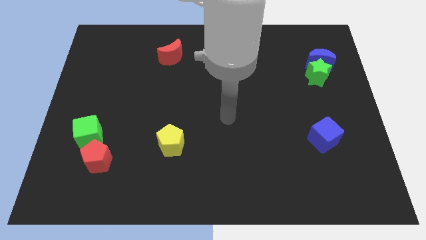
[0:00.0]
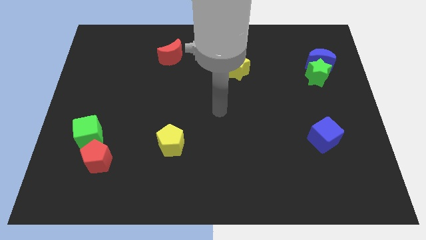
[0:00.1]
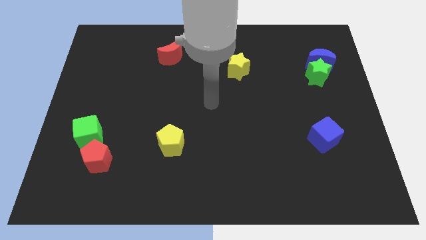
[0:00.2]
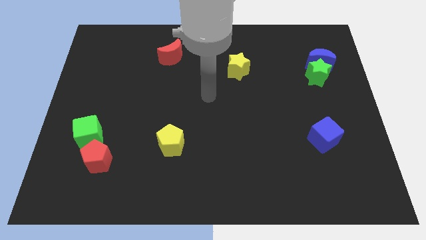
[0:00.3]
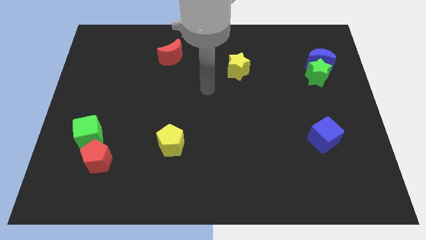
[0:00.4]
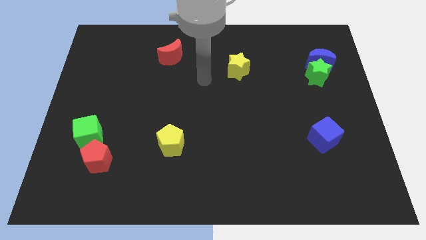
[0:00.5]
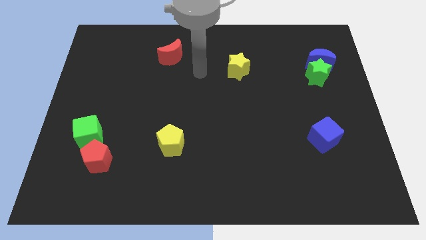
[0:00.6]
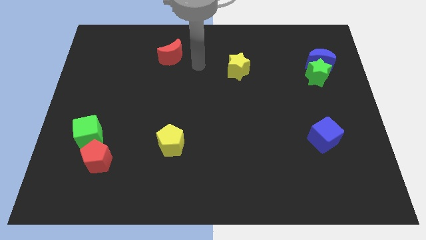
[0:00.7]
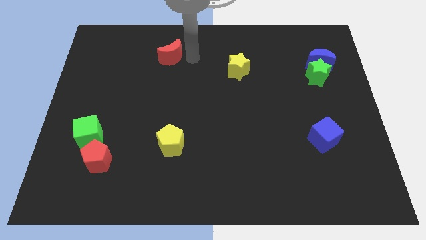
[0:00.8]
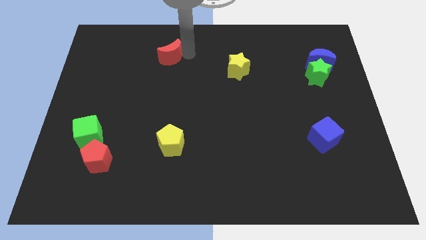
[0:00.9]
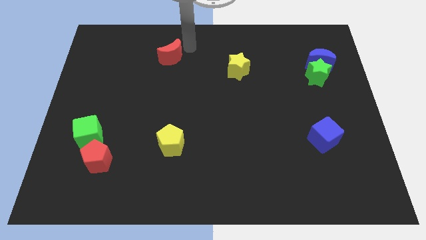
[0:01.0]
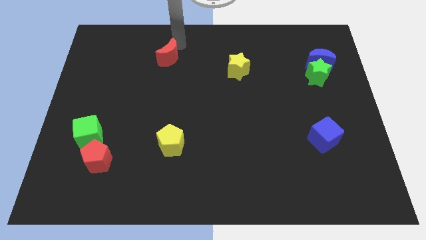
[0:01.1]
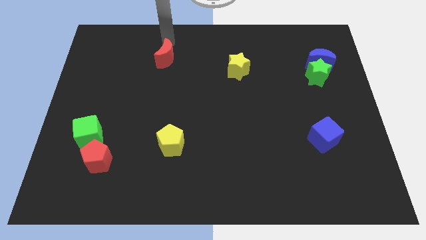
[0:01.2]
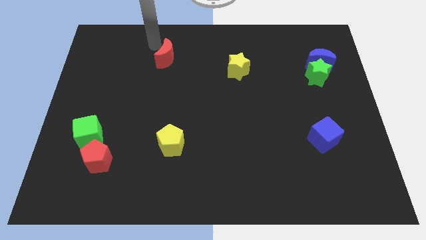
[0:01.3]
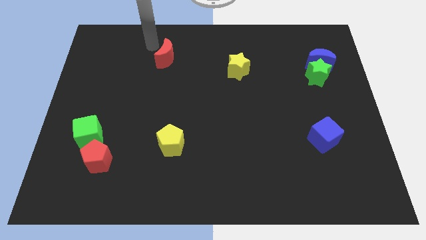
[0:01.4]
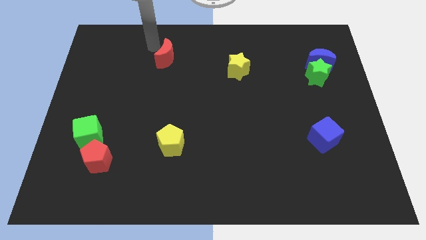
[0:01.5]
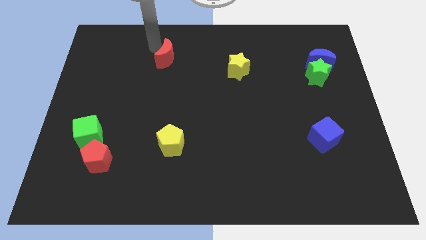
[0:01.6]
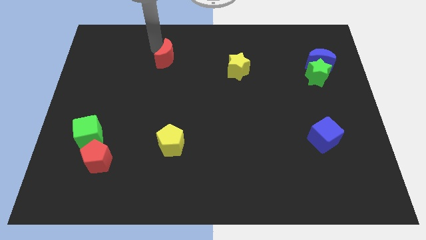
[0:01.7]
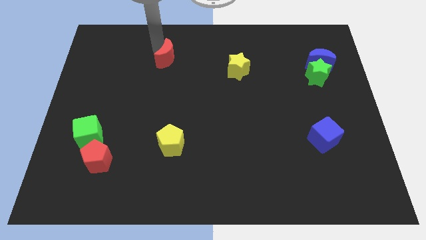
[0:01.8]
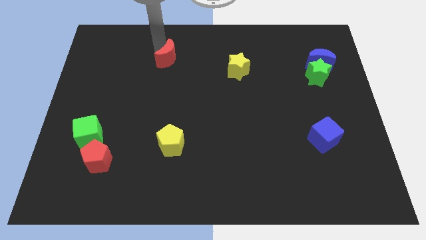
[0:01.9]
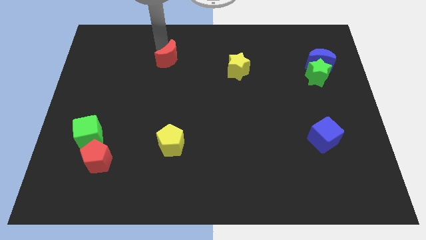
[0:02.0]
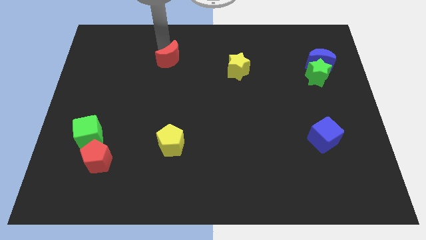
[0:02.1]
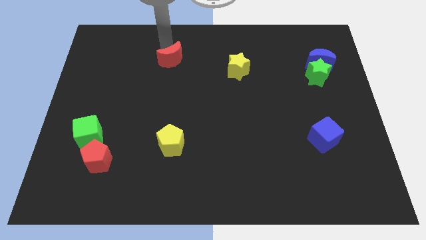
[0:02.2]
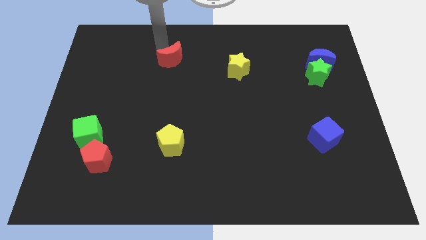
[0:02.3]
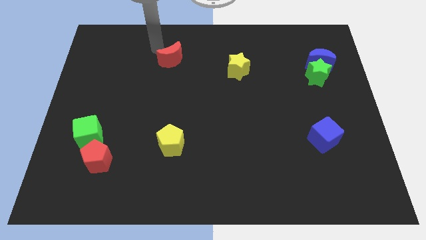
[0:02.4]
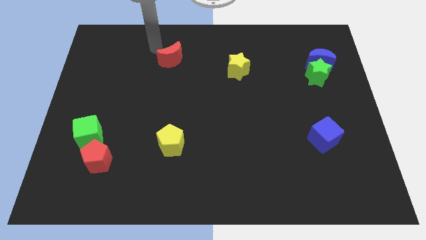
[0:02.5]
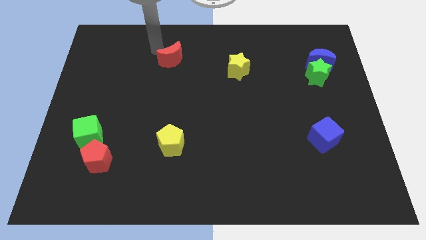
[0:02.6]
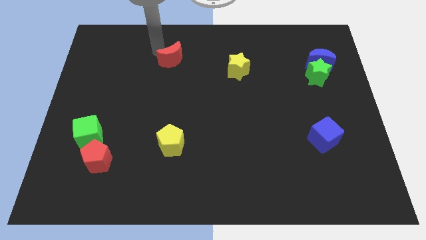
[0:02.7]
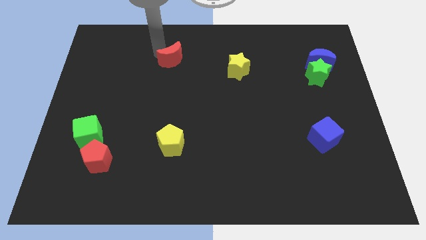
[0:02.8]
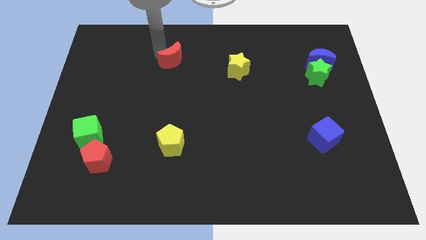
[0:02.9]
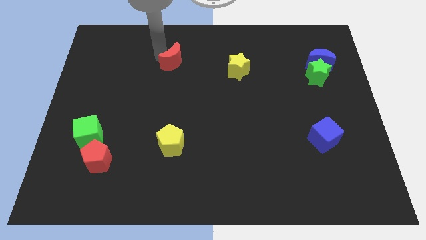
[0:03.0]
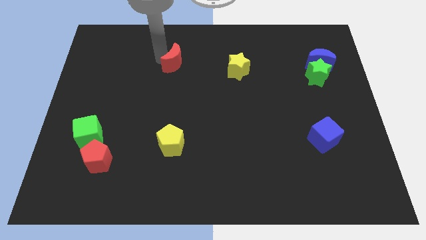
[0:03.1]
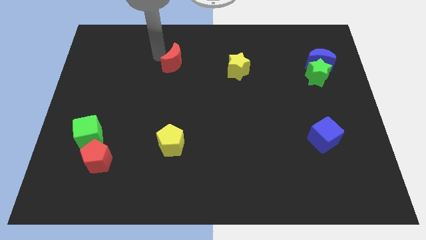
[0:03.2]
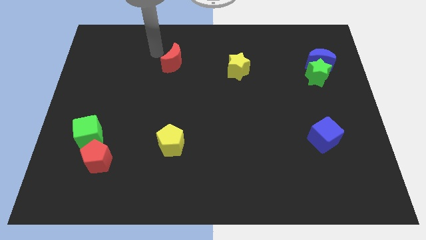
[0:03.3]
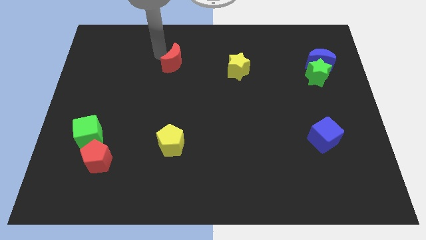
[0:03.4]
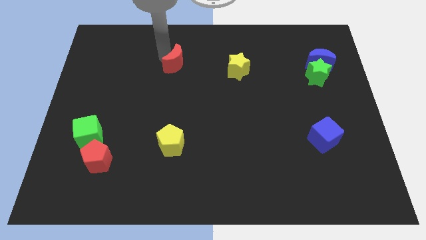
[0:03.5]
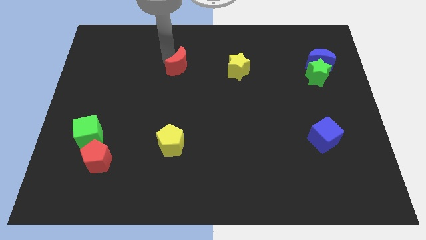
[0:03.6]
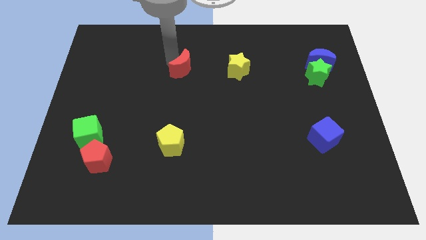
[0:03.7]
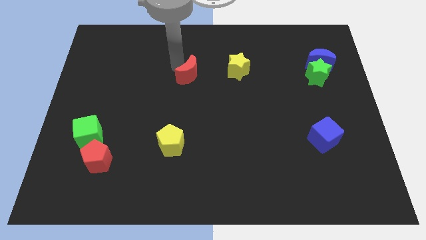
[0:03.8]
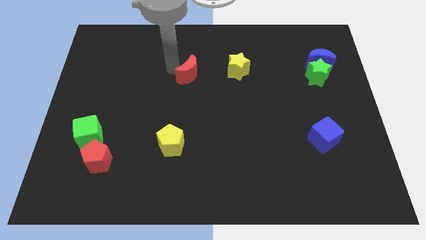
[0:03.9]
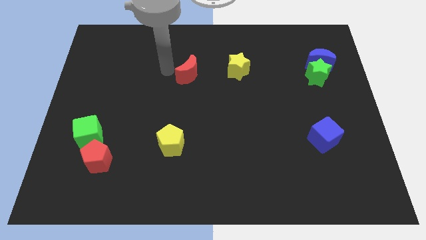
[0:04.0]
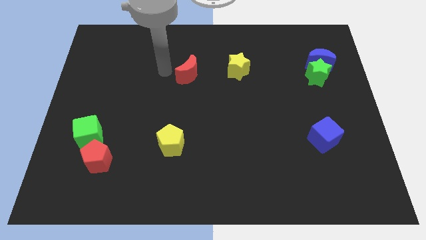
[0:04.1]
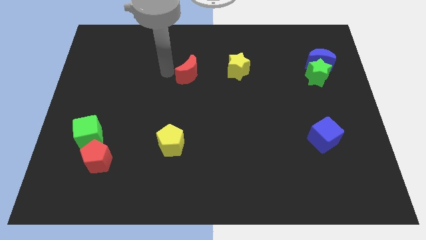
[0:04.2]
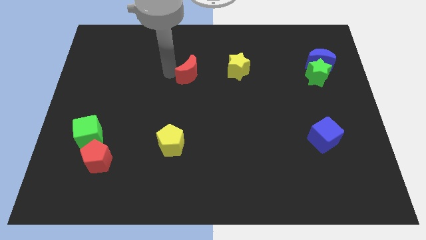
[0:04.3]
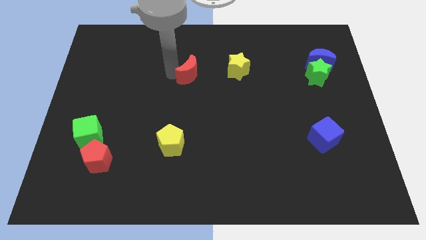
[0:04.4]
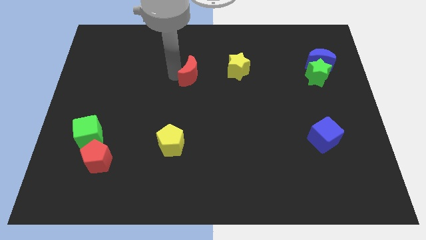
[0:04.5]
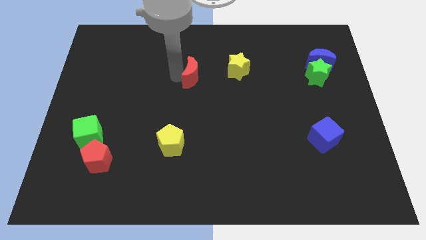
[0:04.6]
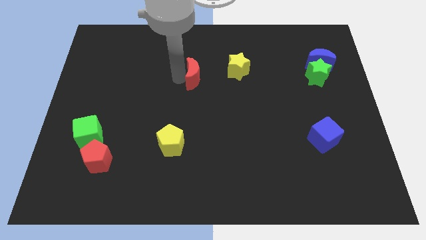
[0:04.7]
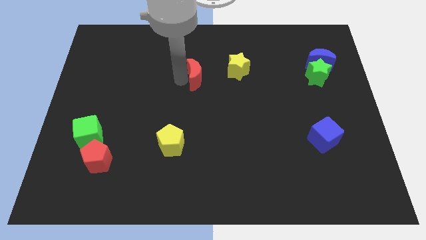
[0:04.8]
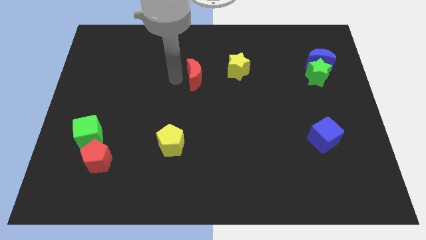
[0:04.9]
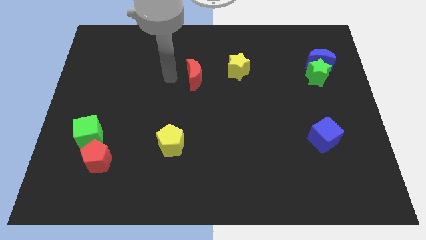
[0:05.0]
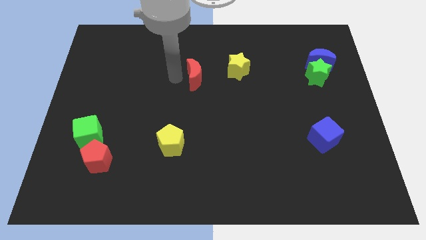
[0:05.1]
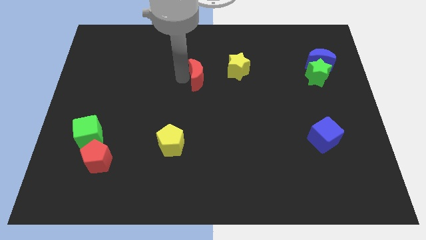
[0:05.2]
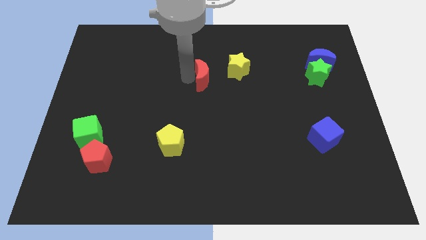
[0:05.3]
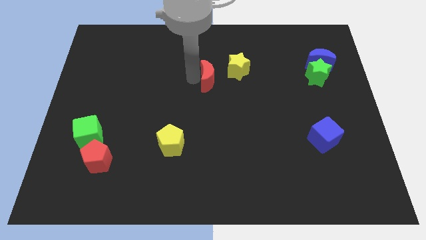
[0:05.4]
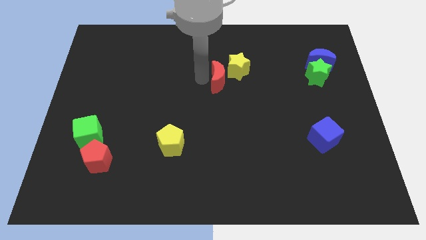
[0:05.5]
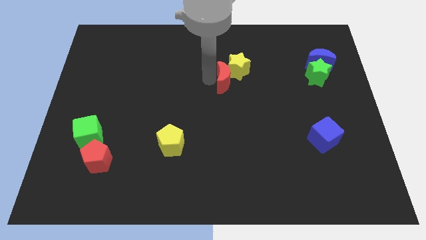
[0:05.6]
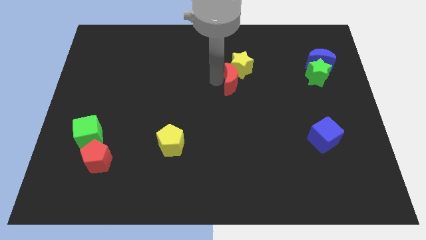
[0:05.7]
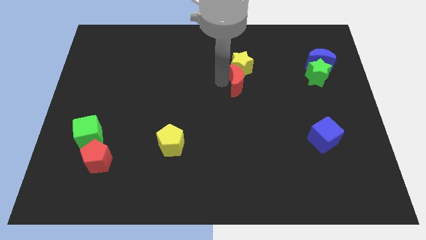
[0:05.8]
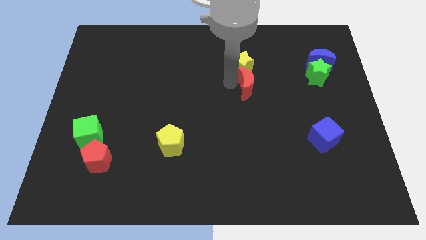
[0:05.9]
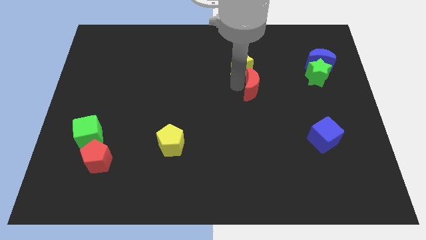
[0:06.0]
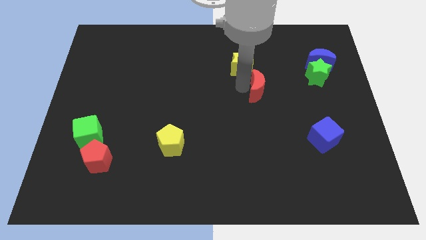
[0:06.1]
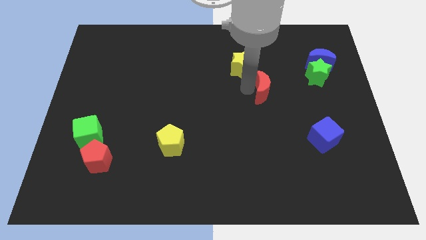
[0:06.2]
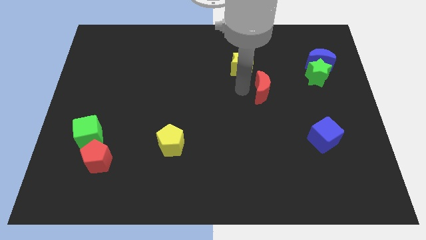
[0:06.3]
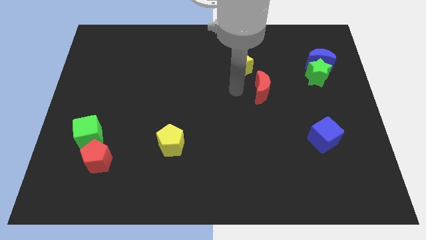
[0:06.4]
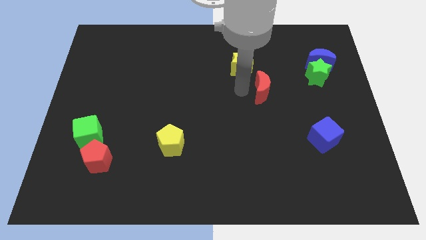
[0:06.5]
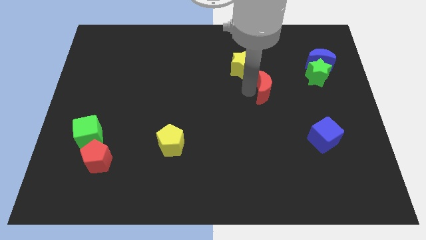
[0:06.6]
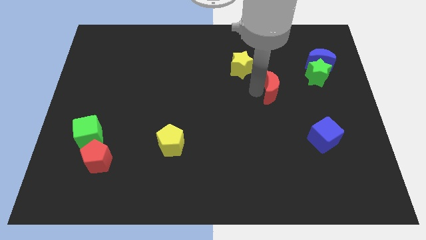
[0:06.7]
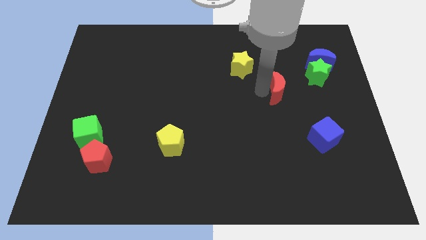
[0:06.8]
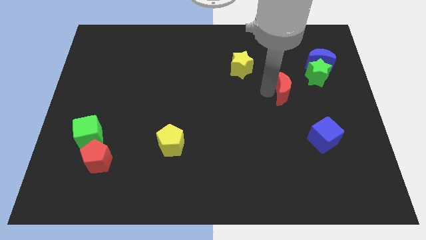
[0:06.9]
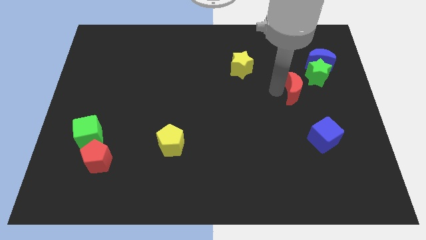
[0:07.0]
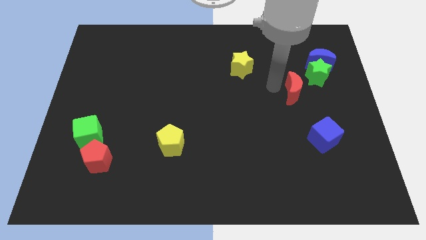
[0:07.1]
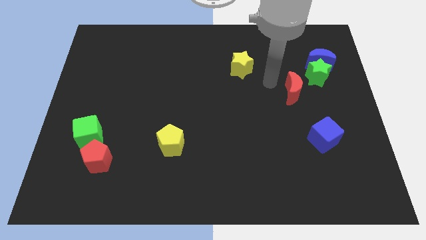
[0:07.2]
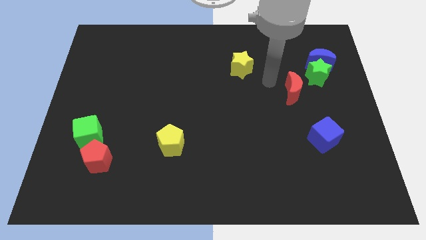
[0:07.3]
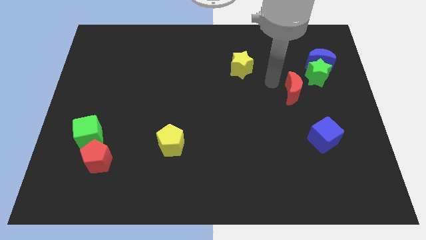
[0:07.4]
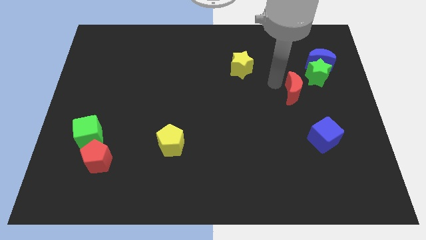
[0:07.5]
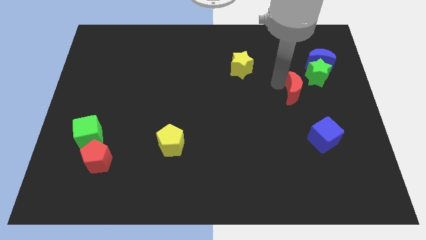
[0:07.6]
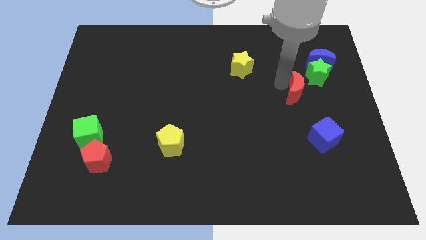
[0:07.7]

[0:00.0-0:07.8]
move the red moon above the blue cube
